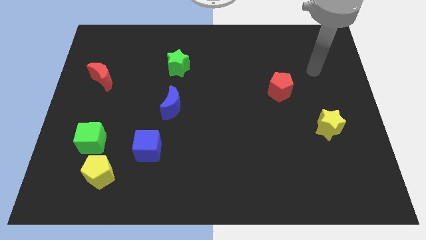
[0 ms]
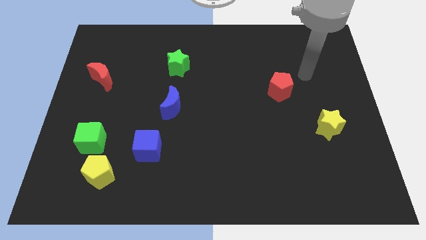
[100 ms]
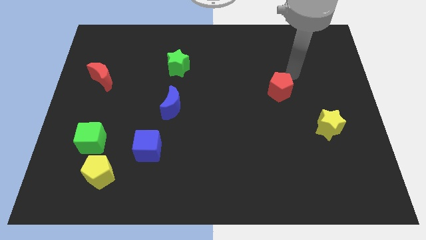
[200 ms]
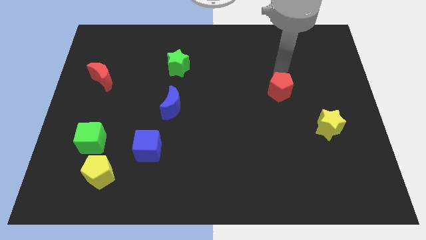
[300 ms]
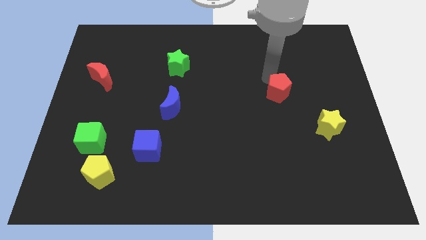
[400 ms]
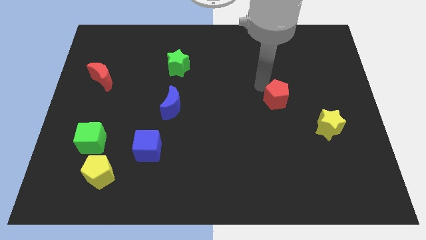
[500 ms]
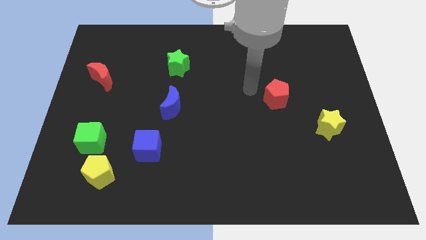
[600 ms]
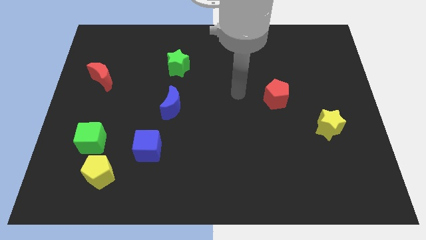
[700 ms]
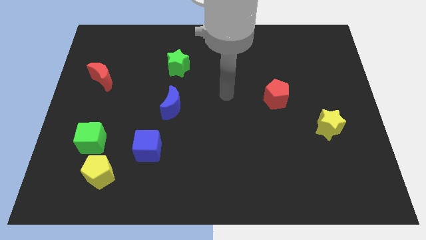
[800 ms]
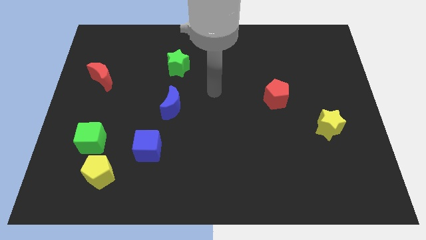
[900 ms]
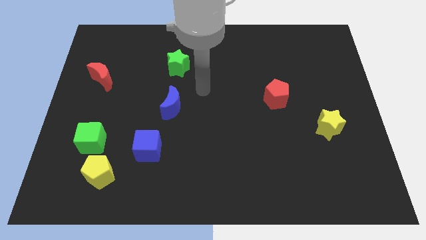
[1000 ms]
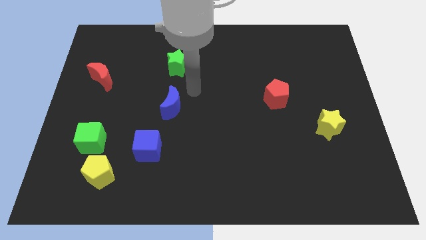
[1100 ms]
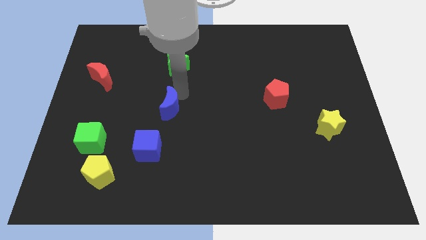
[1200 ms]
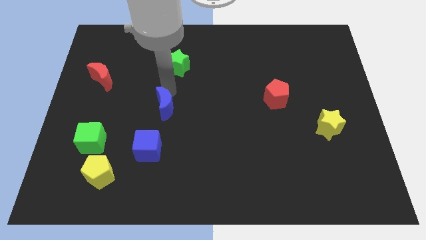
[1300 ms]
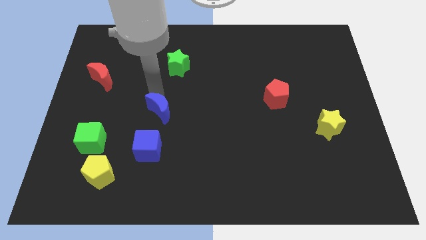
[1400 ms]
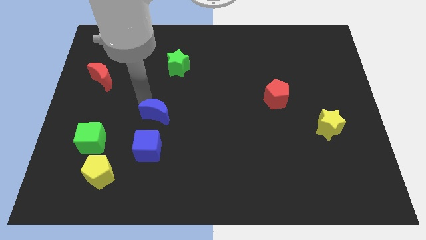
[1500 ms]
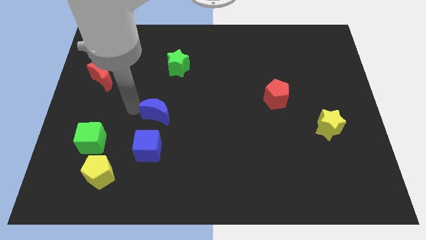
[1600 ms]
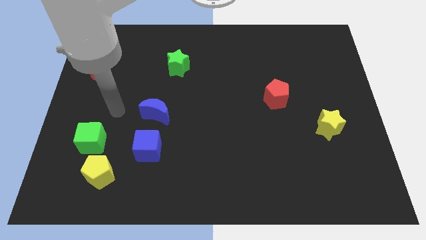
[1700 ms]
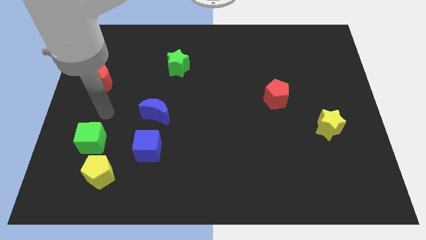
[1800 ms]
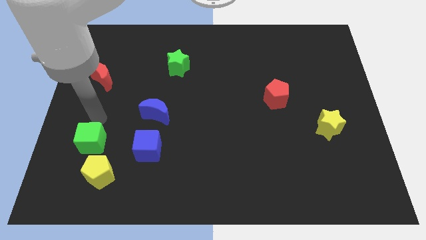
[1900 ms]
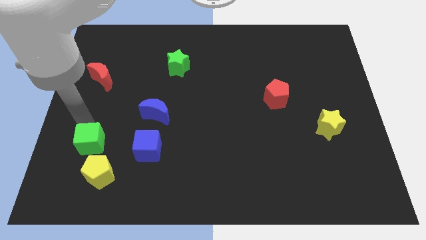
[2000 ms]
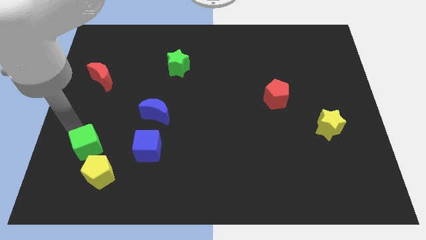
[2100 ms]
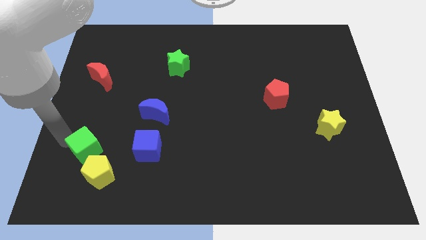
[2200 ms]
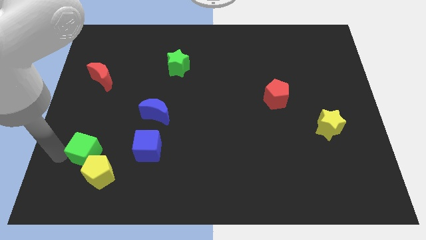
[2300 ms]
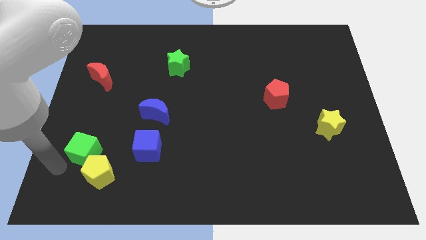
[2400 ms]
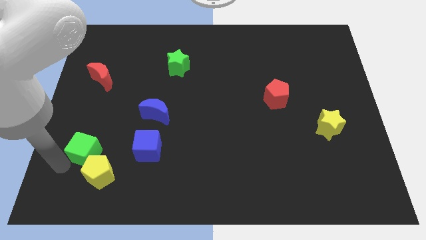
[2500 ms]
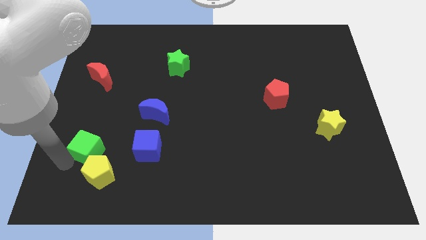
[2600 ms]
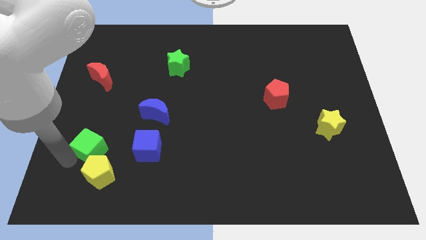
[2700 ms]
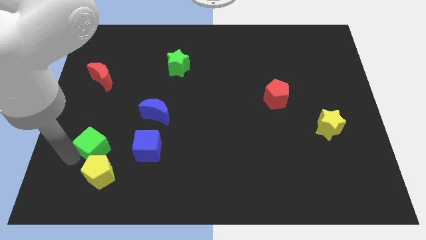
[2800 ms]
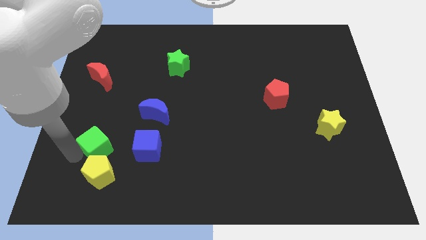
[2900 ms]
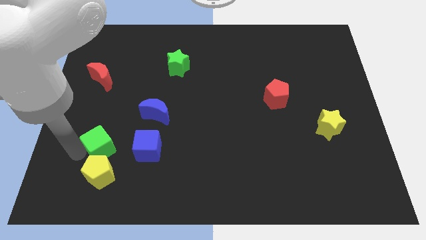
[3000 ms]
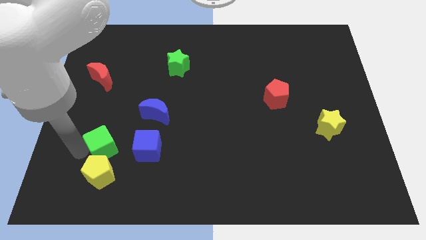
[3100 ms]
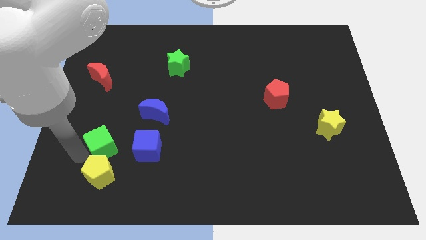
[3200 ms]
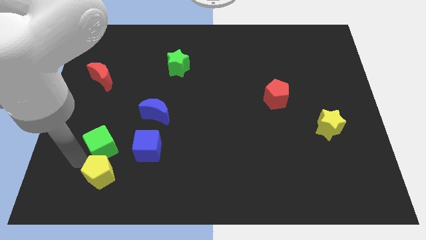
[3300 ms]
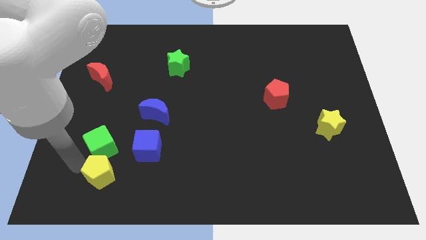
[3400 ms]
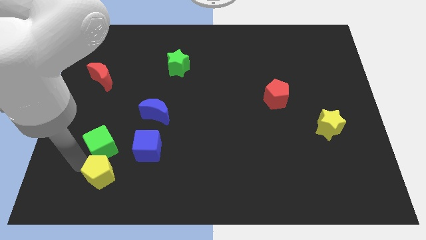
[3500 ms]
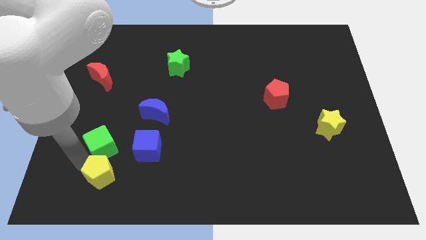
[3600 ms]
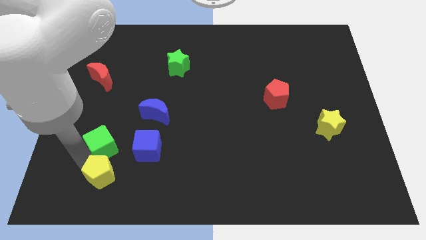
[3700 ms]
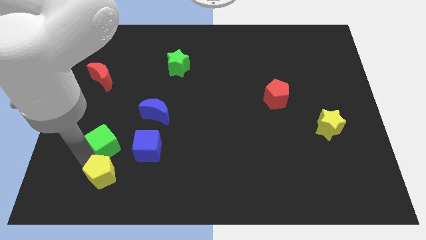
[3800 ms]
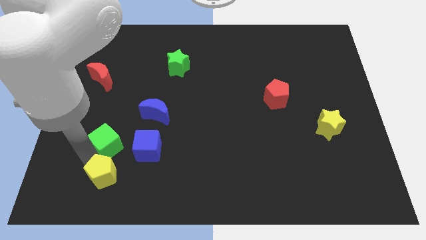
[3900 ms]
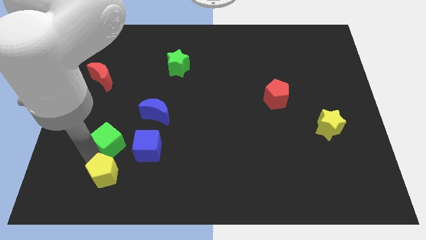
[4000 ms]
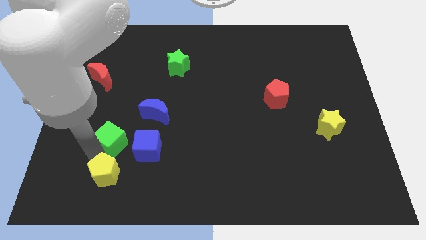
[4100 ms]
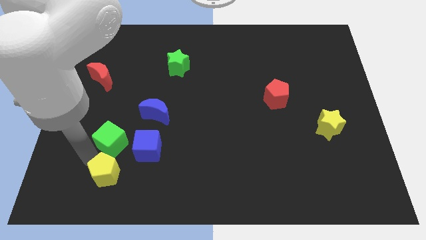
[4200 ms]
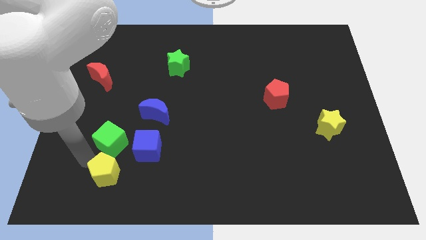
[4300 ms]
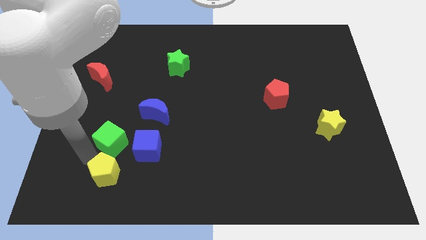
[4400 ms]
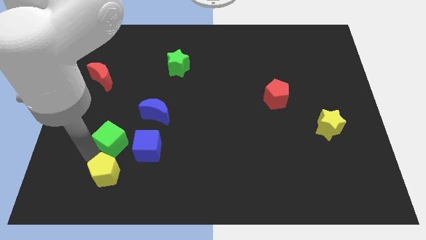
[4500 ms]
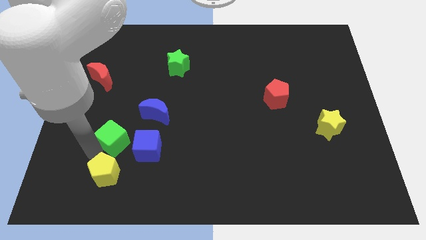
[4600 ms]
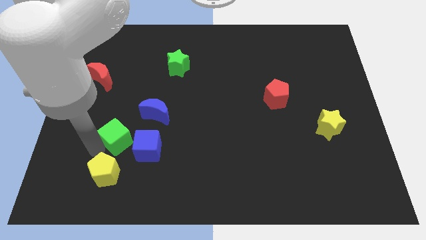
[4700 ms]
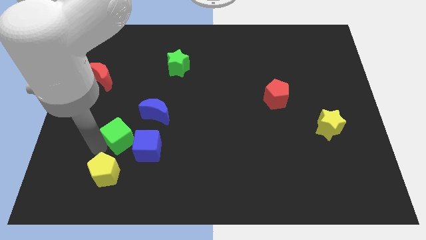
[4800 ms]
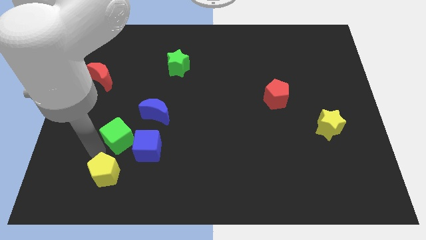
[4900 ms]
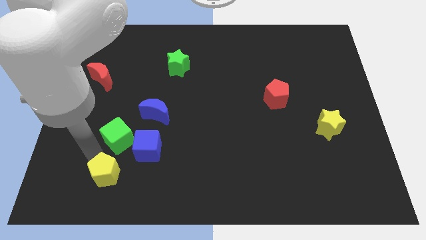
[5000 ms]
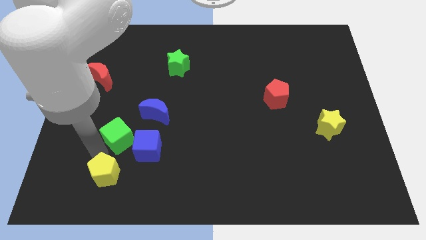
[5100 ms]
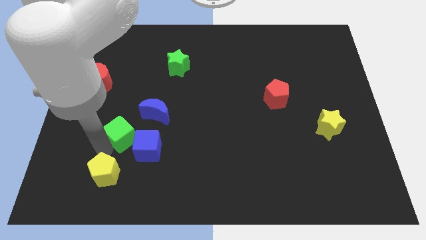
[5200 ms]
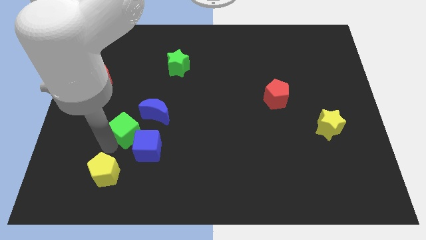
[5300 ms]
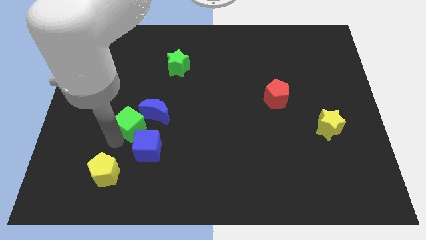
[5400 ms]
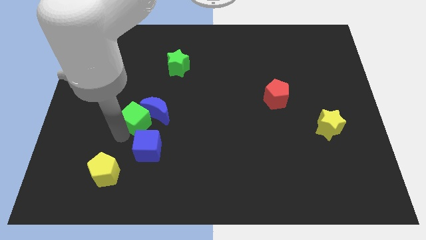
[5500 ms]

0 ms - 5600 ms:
move the green cube next to the blue moon
